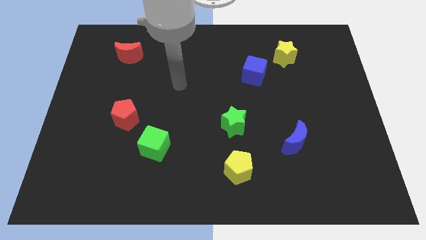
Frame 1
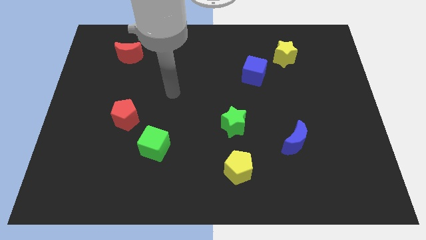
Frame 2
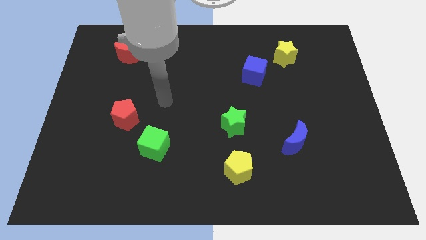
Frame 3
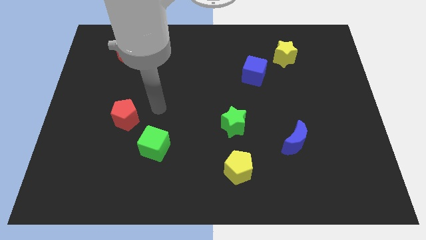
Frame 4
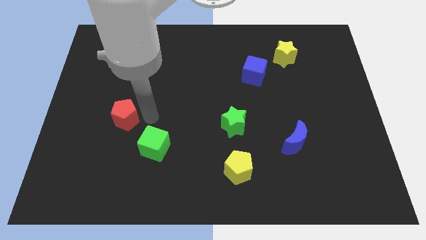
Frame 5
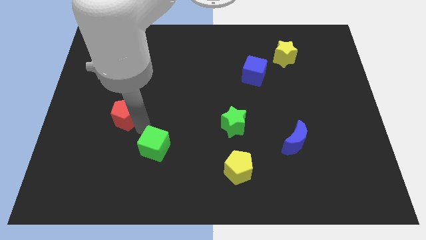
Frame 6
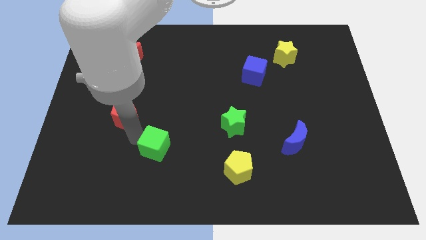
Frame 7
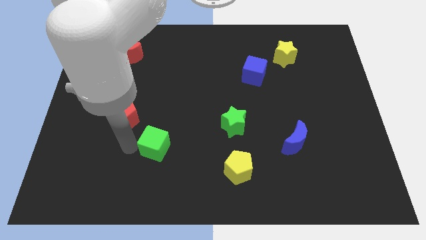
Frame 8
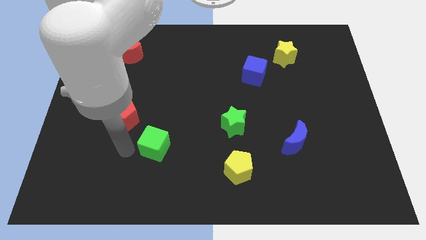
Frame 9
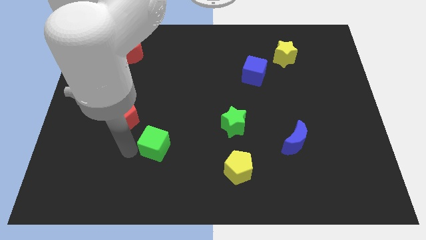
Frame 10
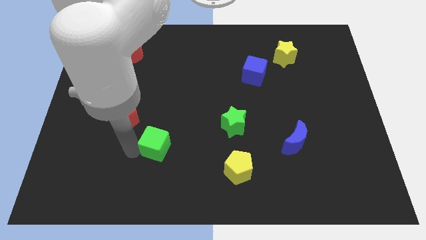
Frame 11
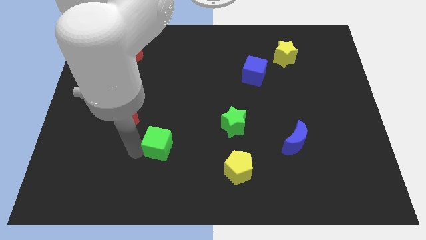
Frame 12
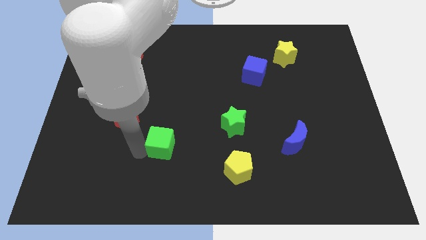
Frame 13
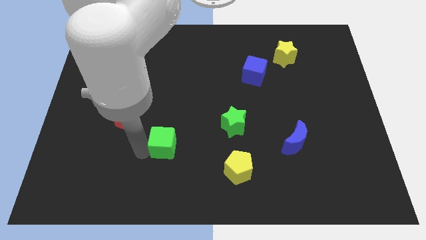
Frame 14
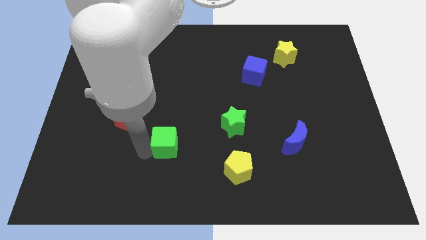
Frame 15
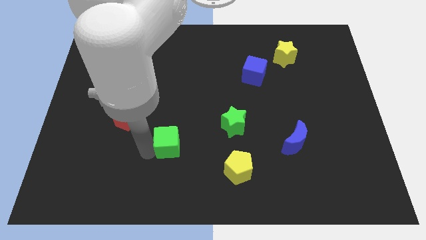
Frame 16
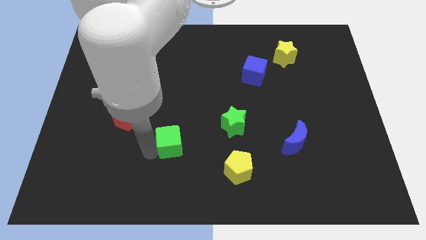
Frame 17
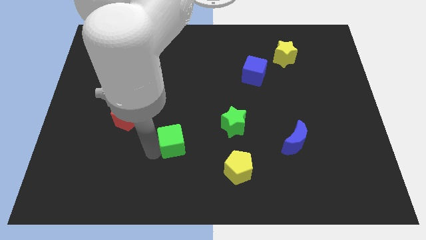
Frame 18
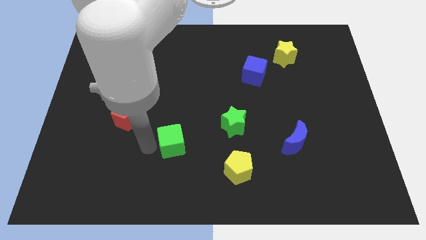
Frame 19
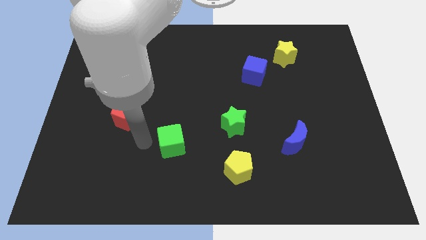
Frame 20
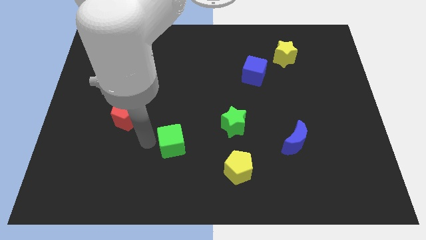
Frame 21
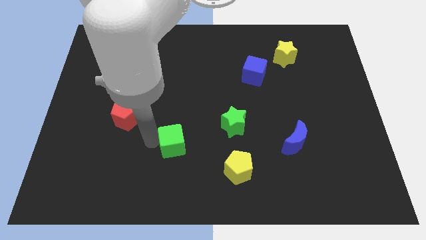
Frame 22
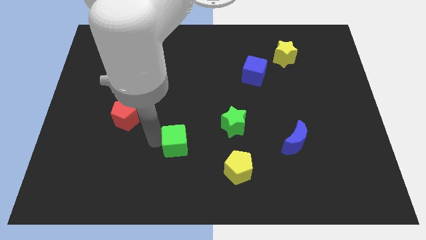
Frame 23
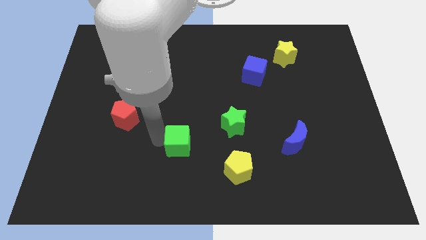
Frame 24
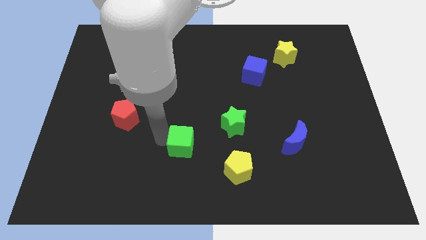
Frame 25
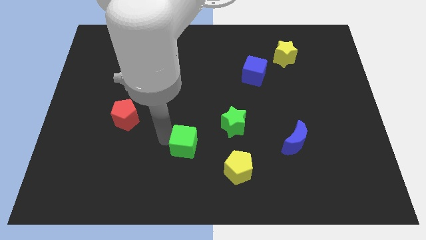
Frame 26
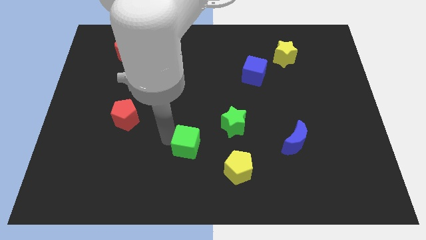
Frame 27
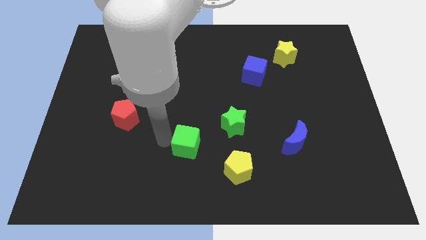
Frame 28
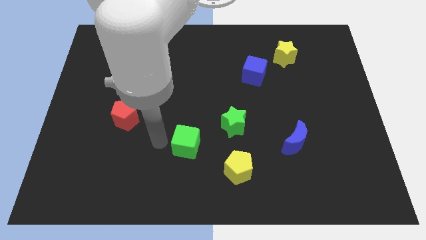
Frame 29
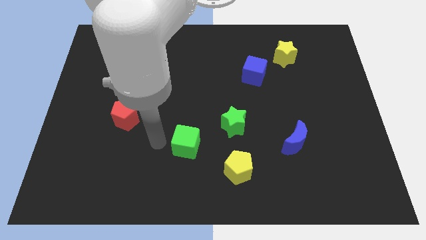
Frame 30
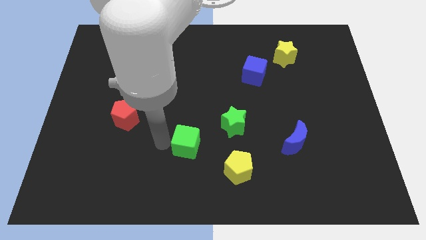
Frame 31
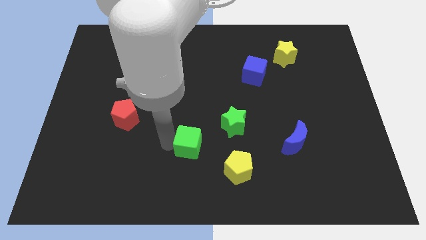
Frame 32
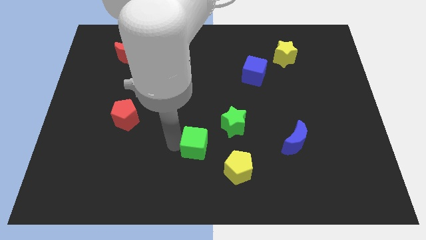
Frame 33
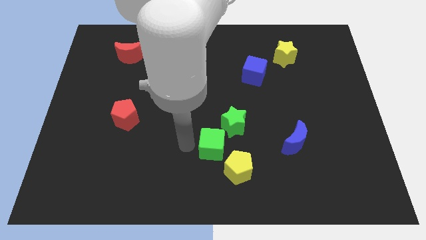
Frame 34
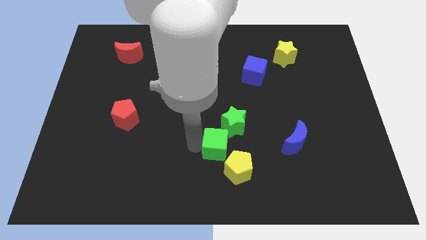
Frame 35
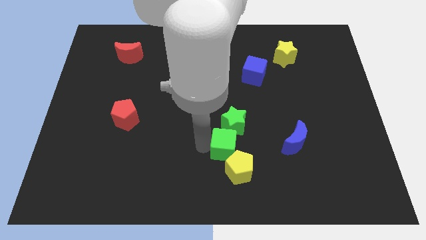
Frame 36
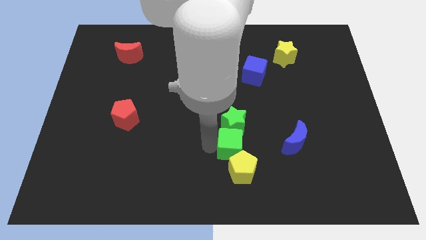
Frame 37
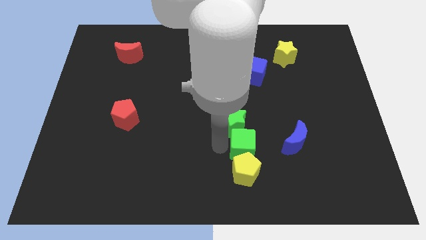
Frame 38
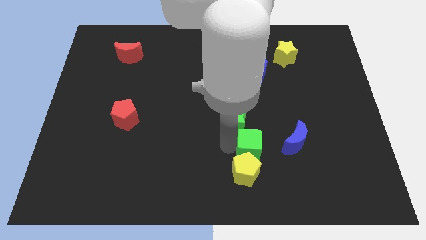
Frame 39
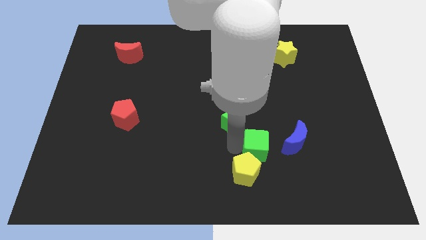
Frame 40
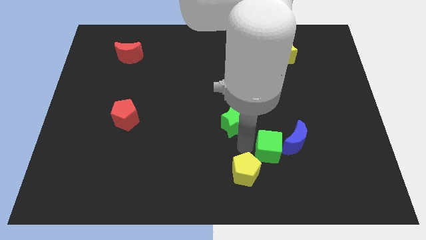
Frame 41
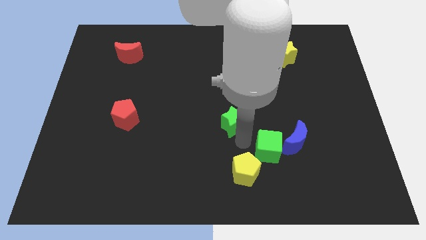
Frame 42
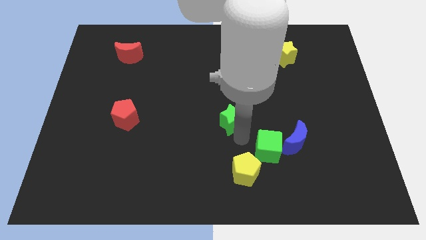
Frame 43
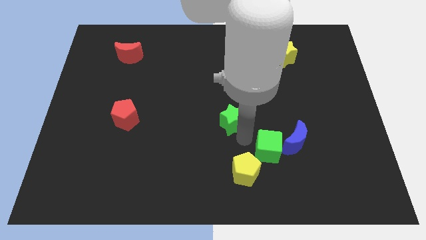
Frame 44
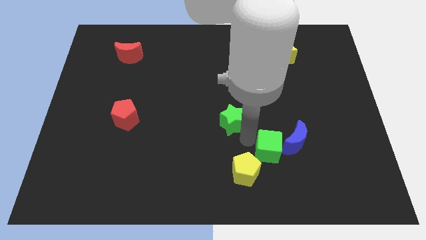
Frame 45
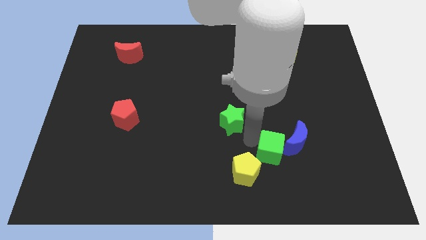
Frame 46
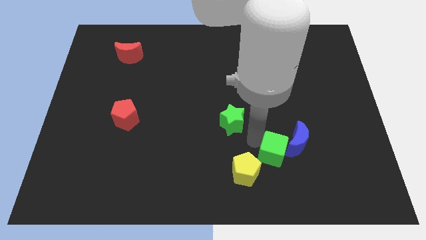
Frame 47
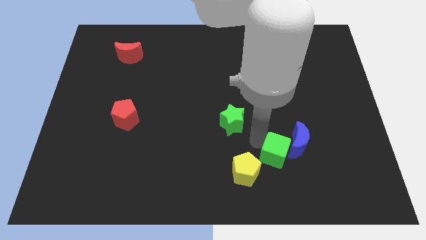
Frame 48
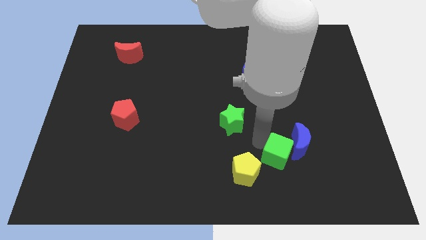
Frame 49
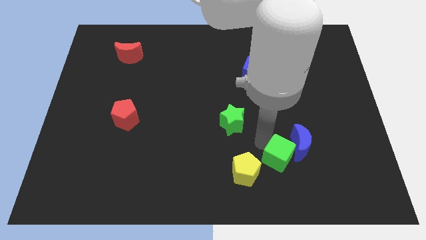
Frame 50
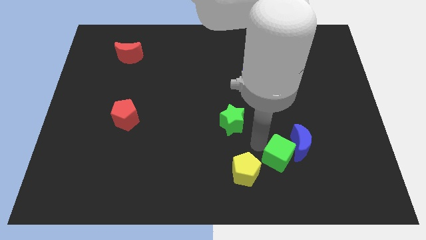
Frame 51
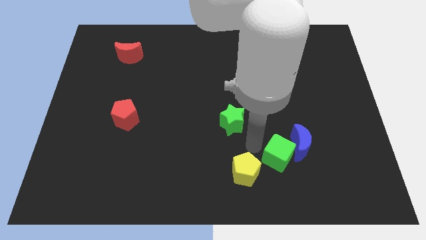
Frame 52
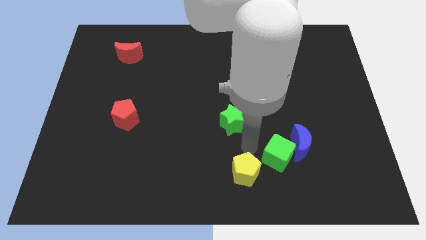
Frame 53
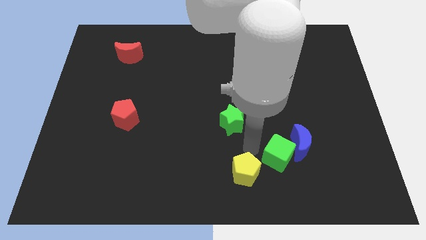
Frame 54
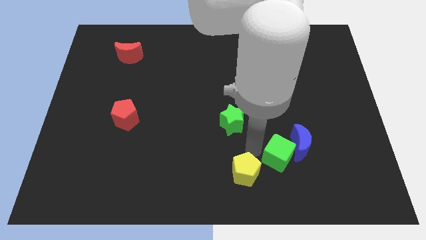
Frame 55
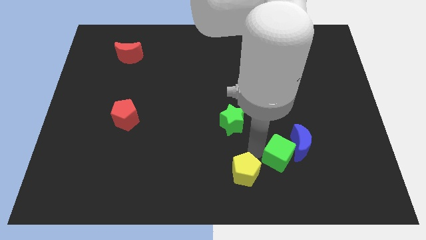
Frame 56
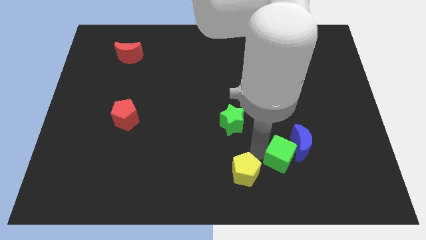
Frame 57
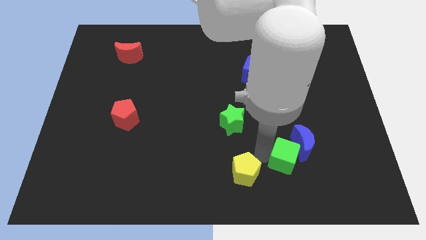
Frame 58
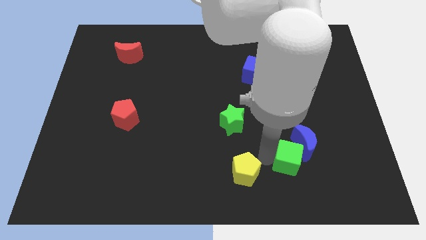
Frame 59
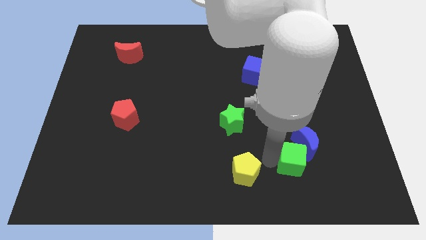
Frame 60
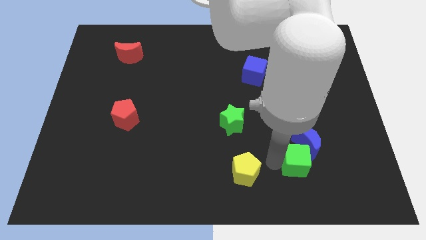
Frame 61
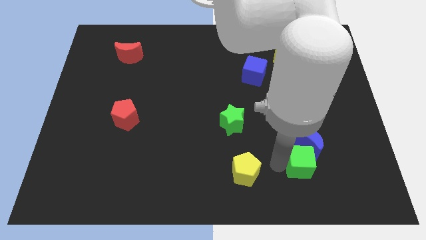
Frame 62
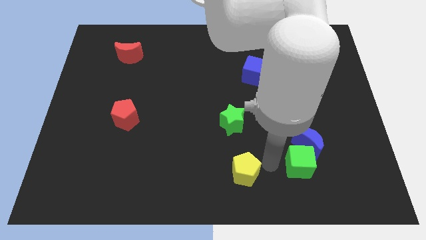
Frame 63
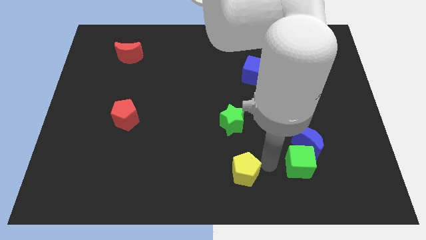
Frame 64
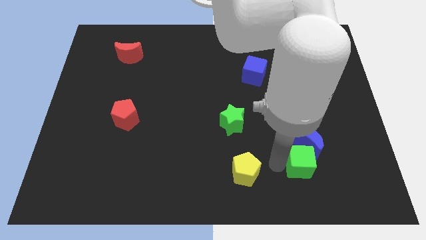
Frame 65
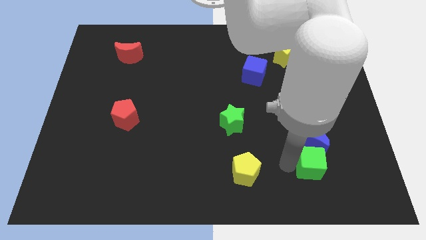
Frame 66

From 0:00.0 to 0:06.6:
slide the green cube to the bottom right of the blue moon

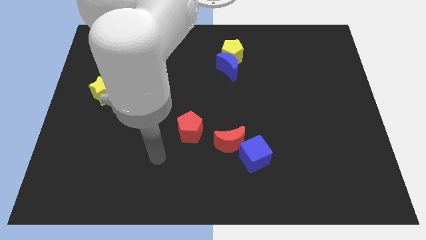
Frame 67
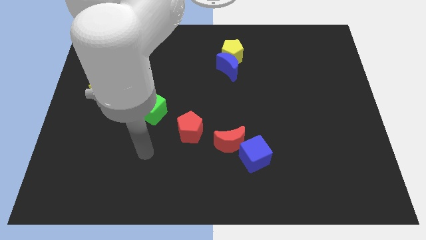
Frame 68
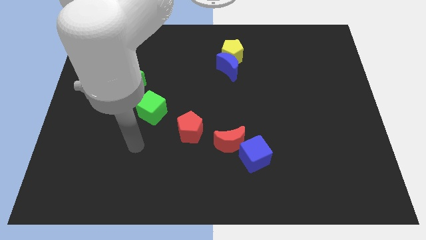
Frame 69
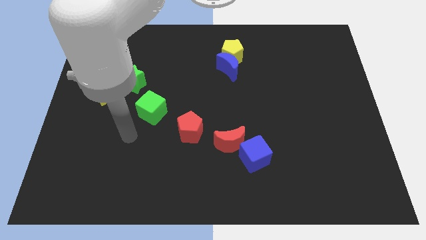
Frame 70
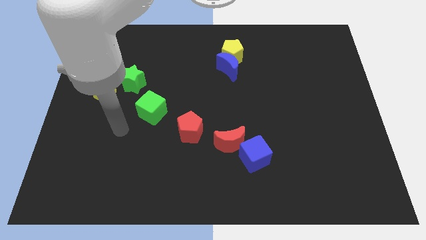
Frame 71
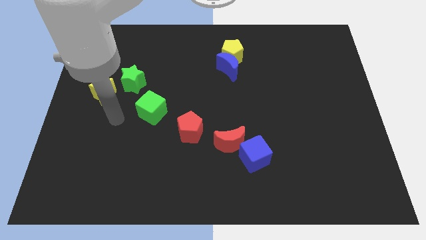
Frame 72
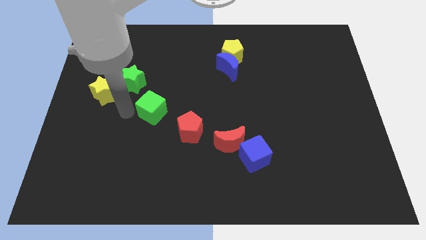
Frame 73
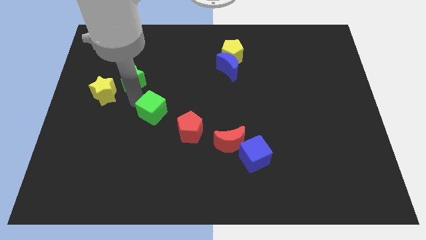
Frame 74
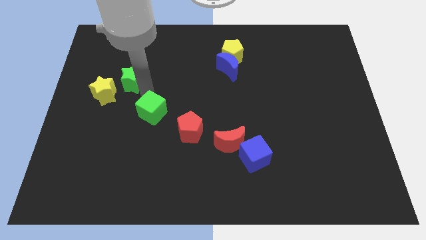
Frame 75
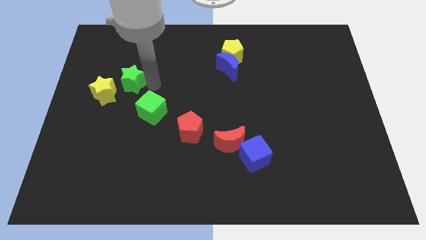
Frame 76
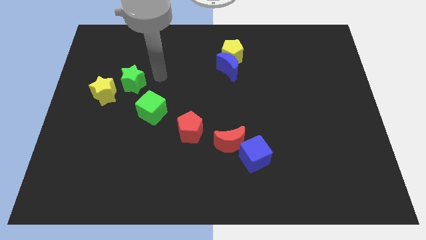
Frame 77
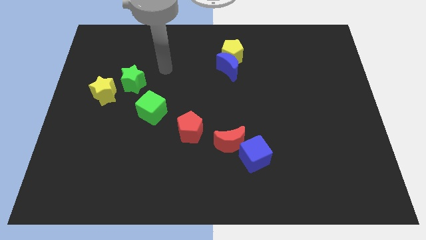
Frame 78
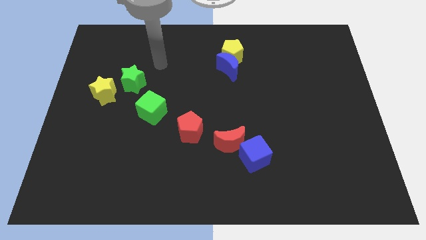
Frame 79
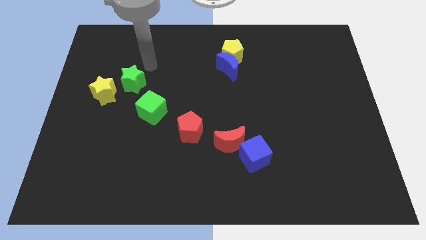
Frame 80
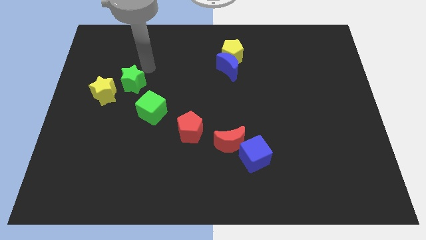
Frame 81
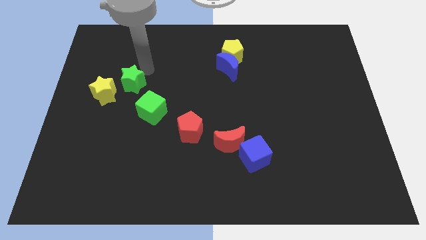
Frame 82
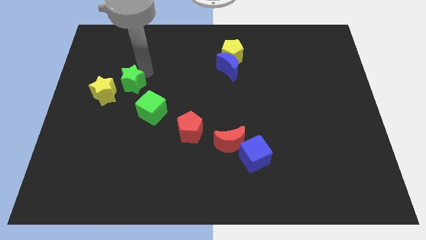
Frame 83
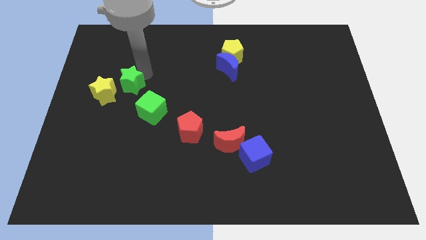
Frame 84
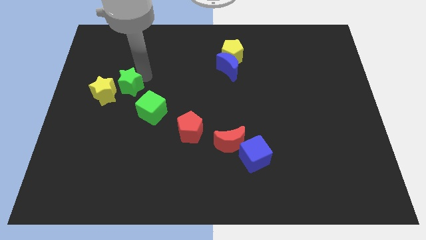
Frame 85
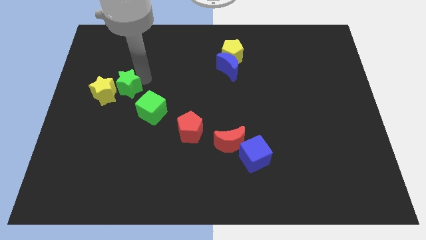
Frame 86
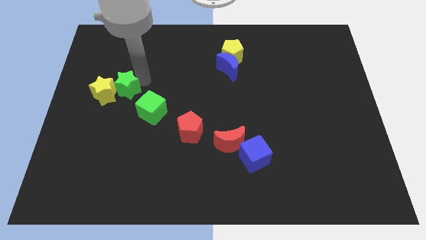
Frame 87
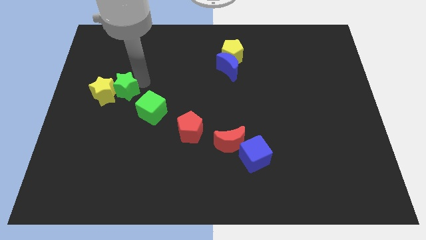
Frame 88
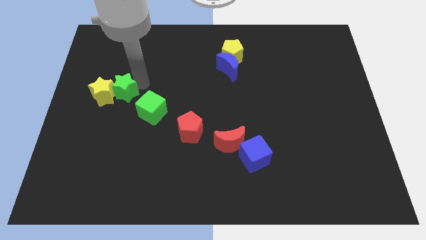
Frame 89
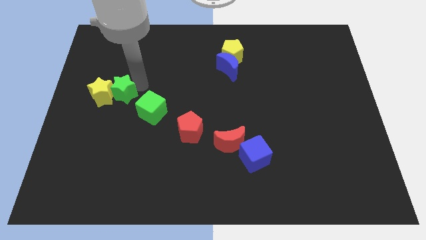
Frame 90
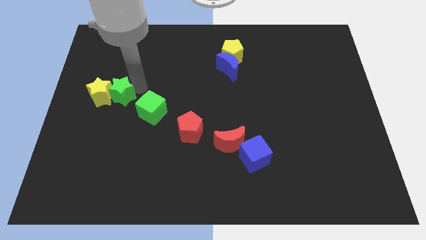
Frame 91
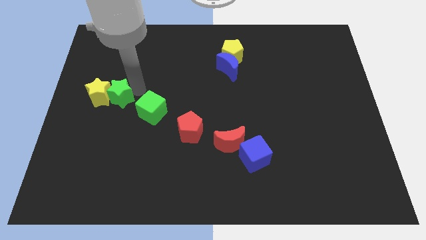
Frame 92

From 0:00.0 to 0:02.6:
put the green star to the left side of the green cube
